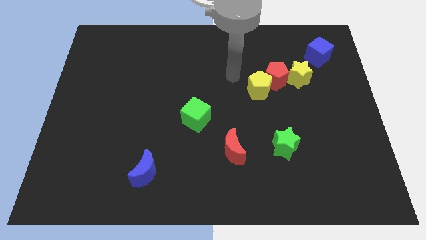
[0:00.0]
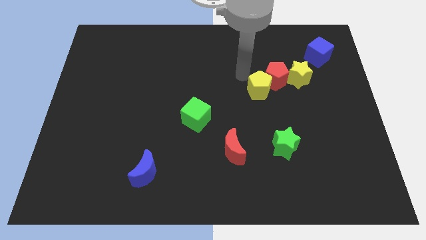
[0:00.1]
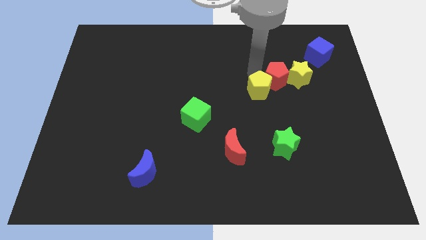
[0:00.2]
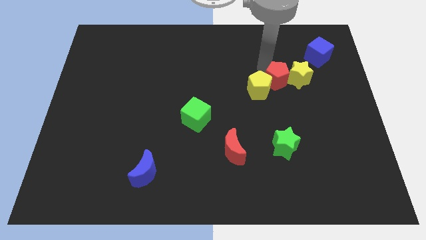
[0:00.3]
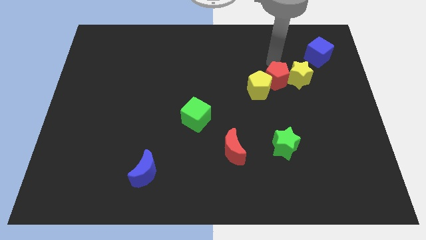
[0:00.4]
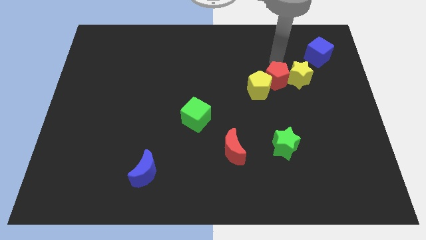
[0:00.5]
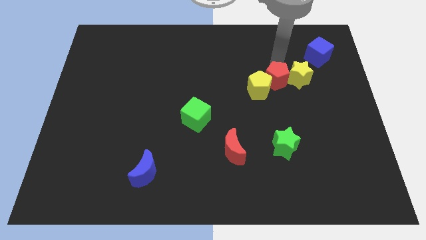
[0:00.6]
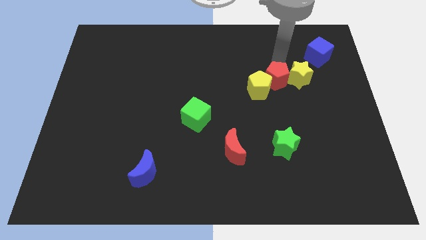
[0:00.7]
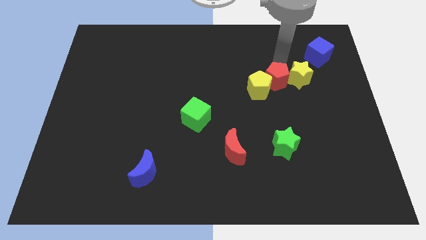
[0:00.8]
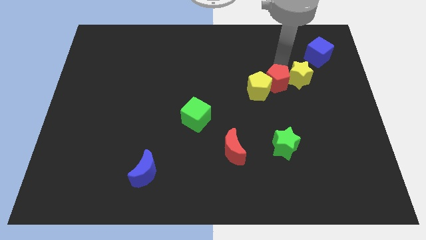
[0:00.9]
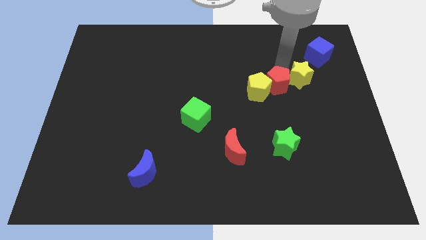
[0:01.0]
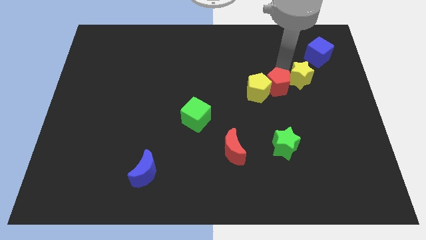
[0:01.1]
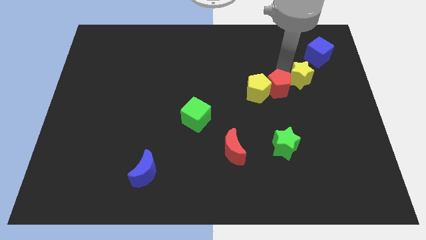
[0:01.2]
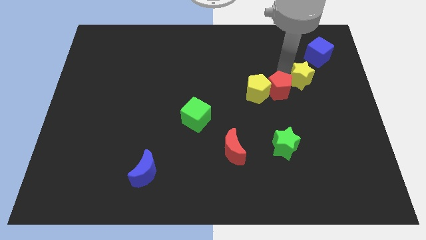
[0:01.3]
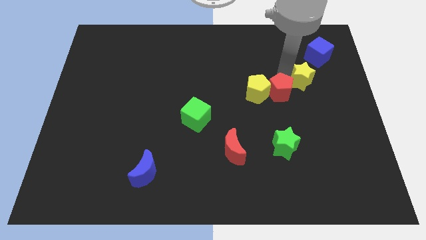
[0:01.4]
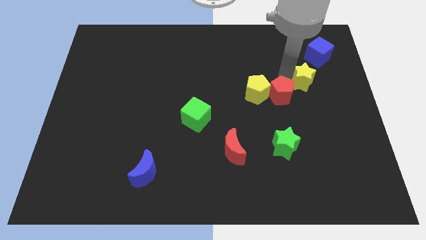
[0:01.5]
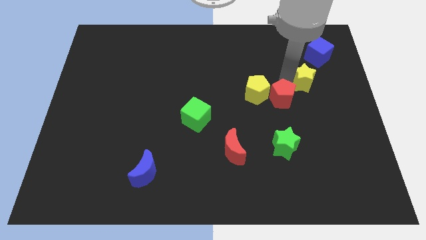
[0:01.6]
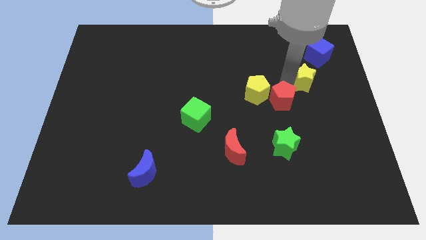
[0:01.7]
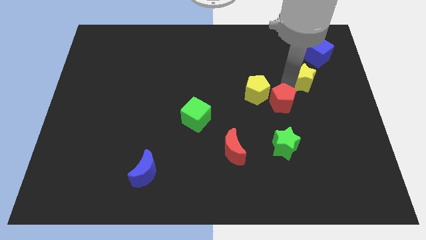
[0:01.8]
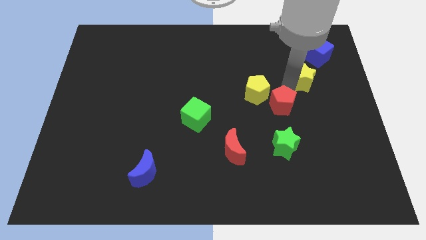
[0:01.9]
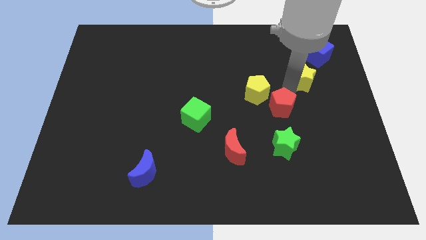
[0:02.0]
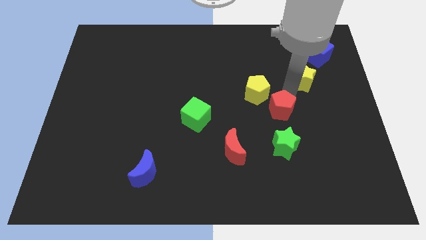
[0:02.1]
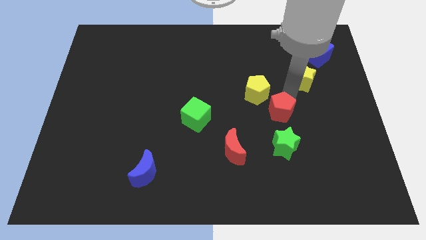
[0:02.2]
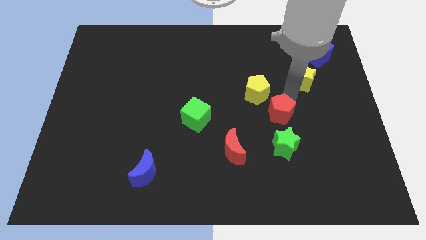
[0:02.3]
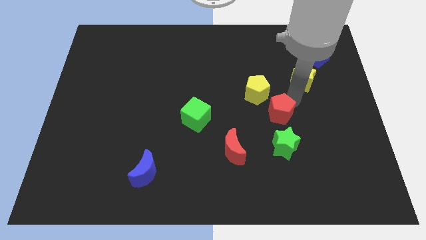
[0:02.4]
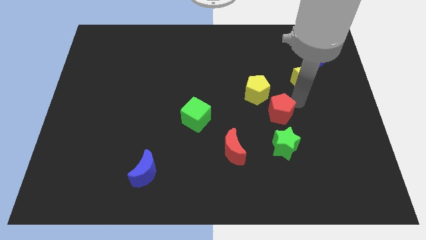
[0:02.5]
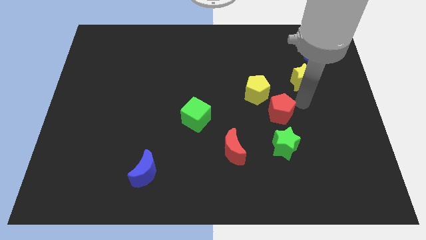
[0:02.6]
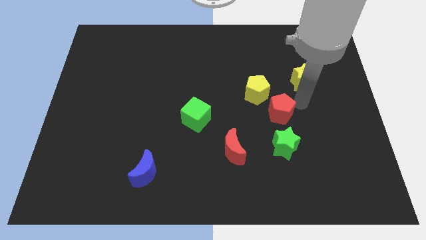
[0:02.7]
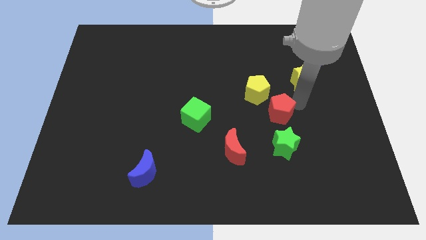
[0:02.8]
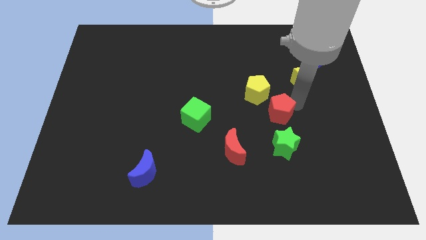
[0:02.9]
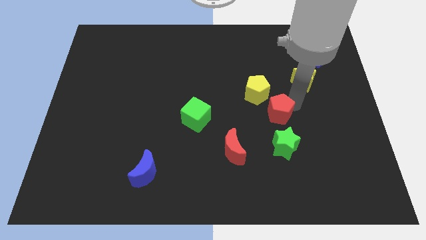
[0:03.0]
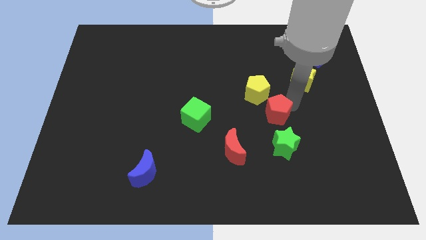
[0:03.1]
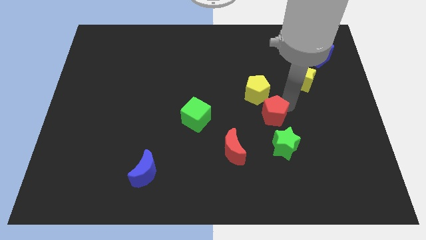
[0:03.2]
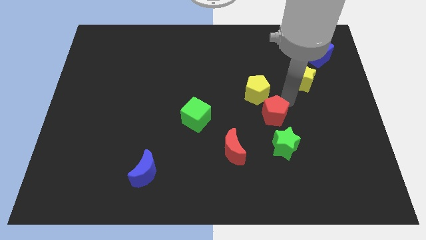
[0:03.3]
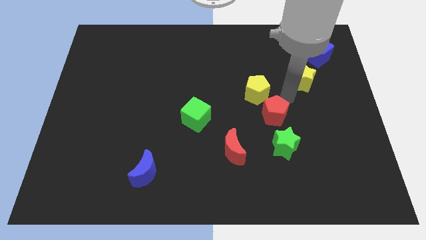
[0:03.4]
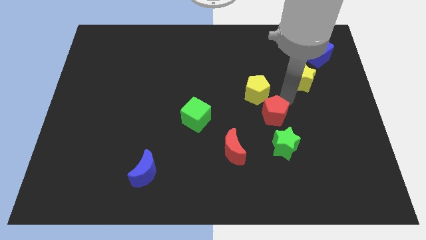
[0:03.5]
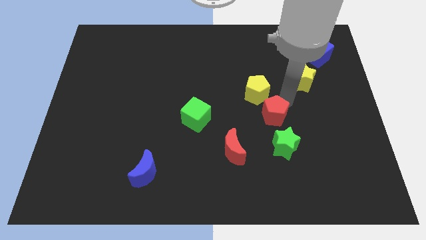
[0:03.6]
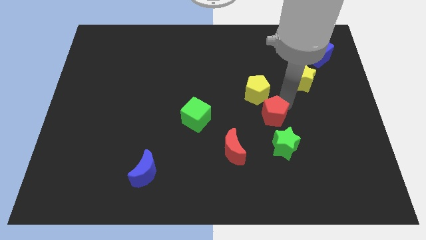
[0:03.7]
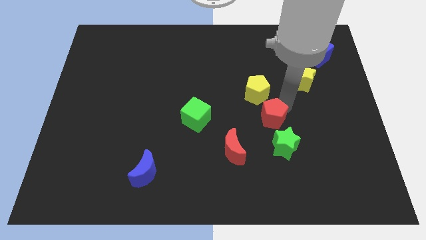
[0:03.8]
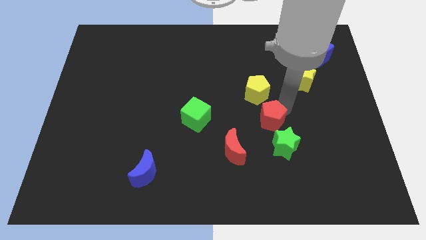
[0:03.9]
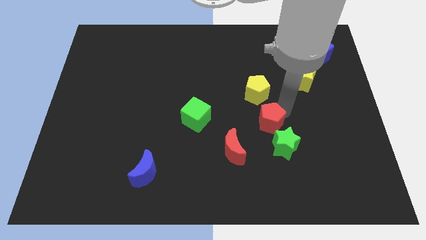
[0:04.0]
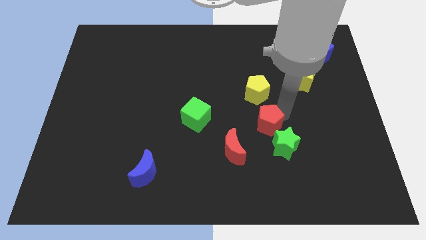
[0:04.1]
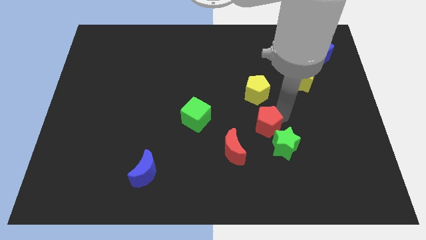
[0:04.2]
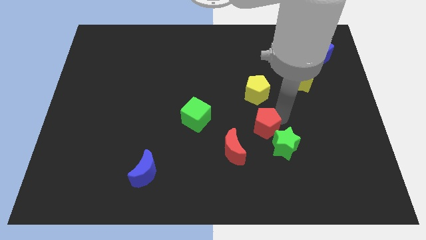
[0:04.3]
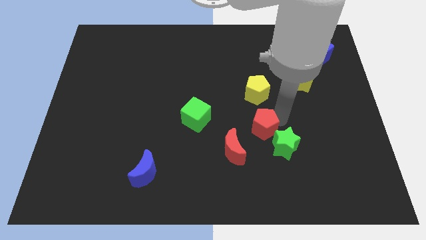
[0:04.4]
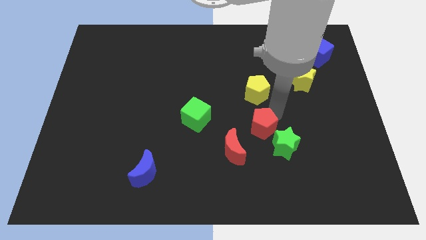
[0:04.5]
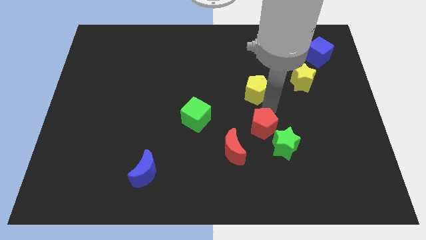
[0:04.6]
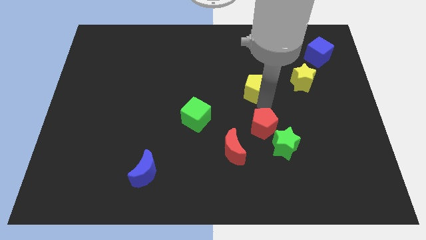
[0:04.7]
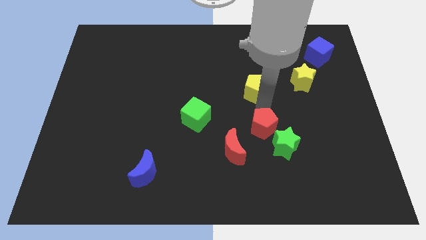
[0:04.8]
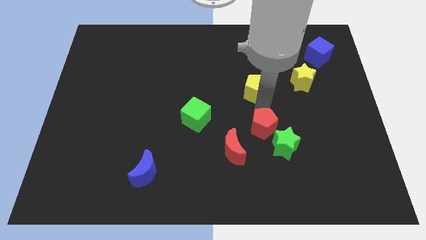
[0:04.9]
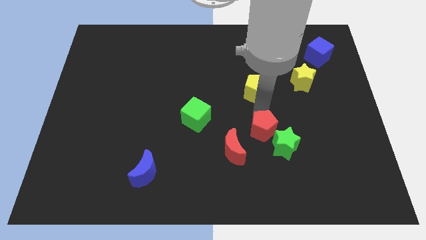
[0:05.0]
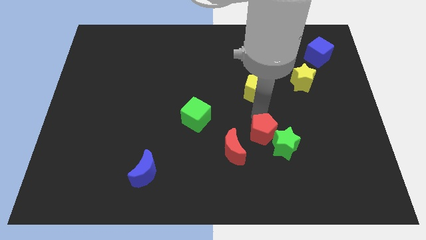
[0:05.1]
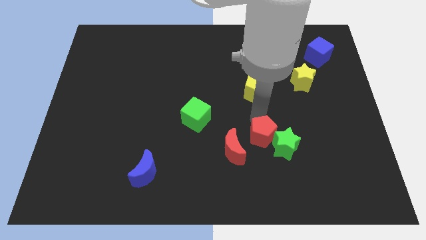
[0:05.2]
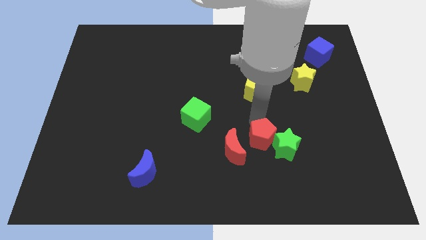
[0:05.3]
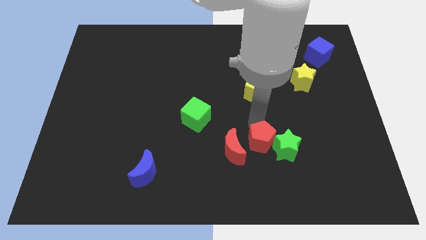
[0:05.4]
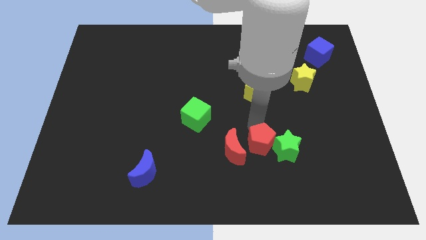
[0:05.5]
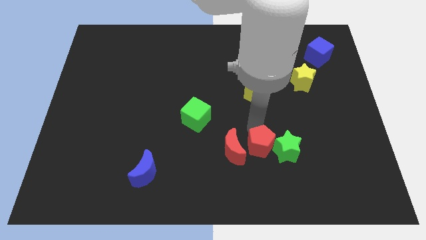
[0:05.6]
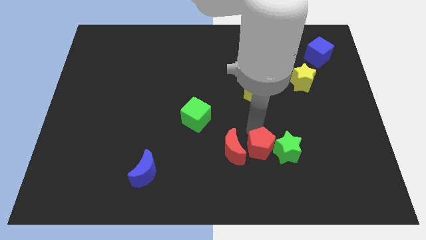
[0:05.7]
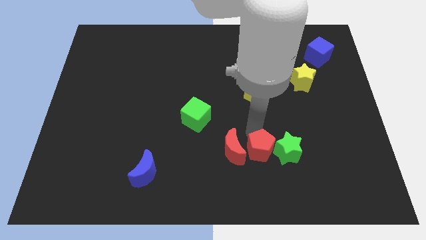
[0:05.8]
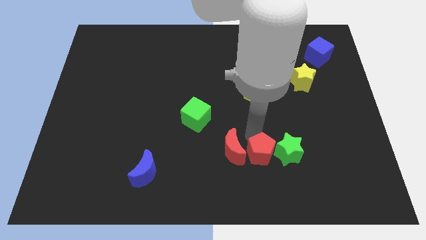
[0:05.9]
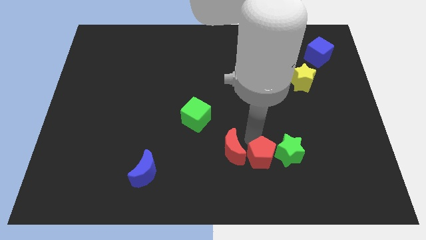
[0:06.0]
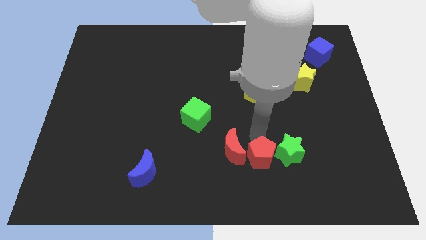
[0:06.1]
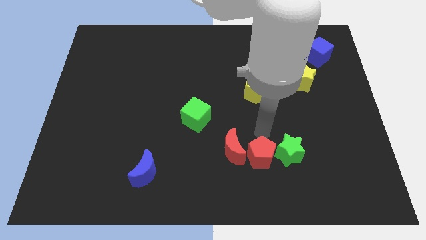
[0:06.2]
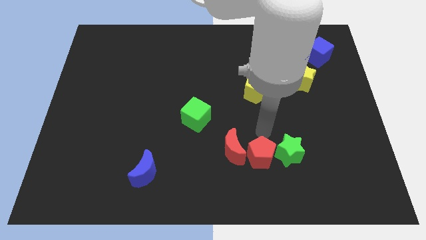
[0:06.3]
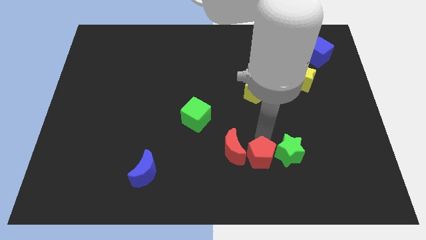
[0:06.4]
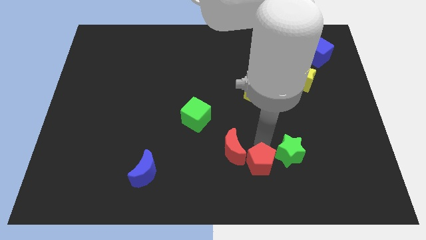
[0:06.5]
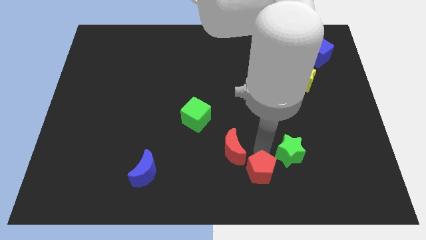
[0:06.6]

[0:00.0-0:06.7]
move the red pentagon to the bottom side
